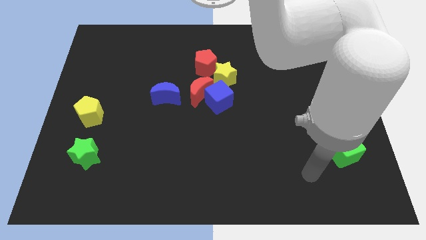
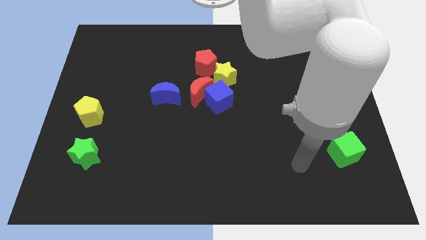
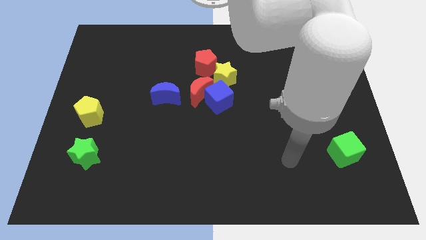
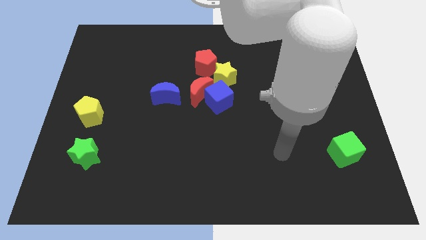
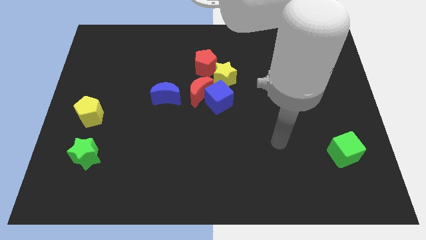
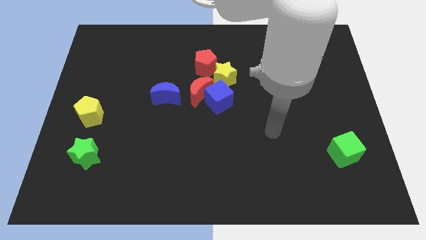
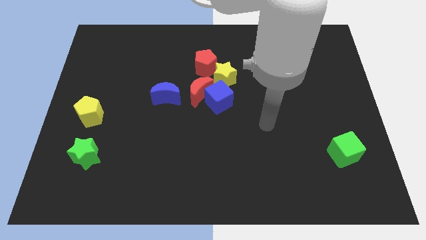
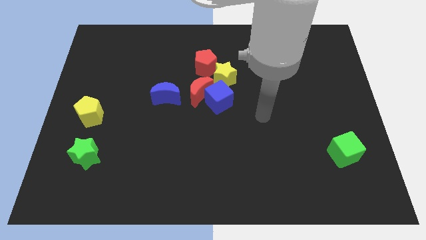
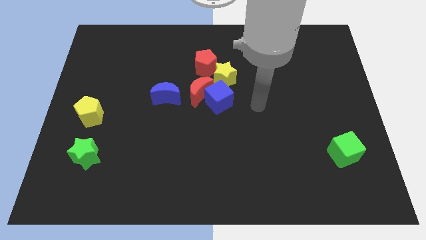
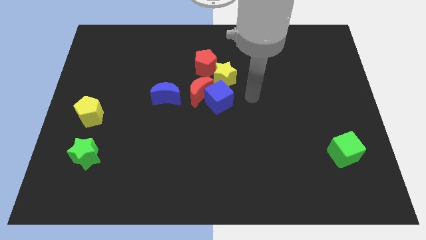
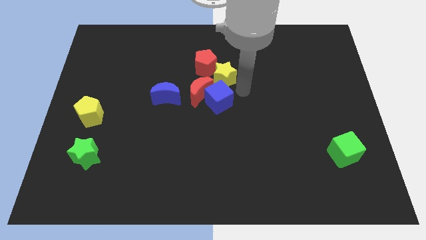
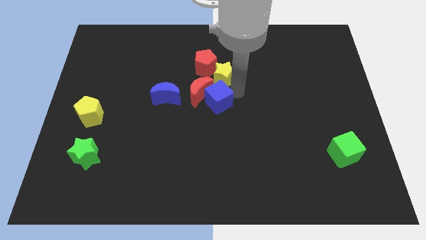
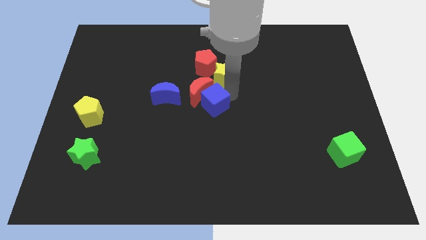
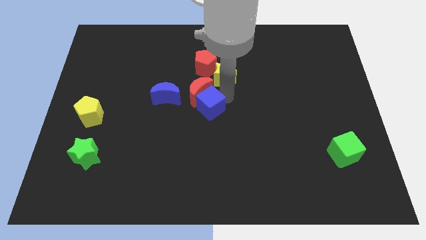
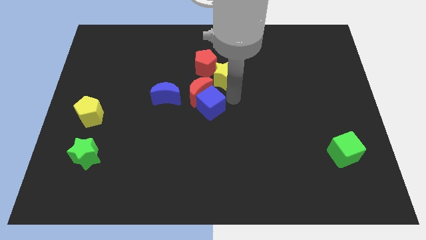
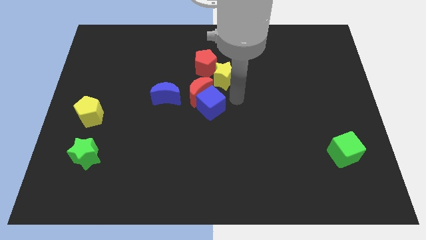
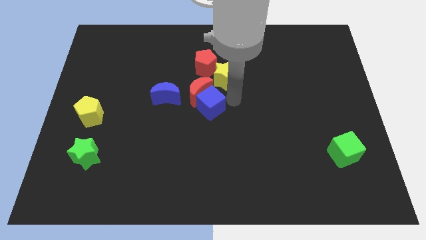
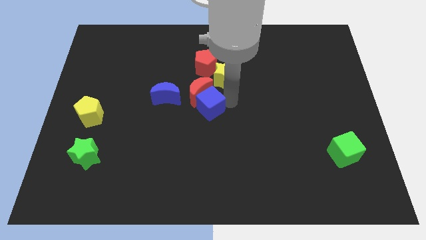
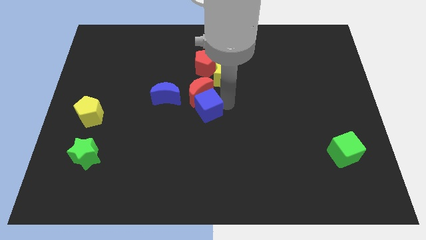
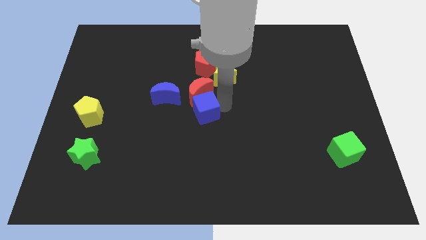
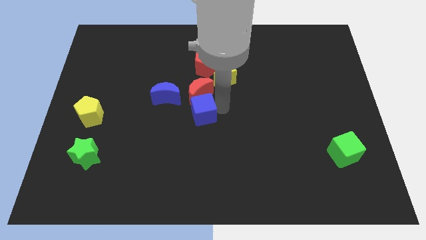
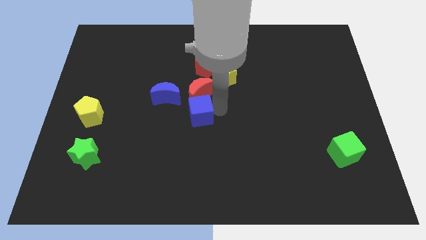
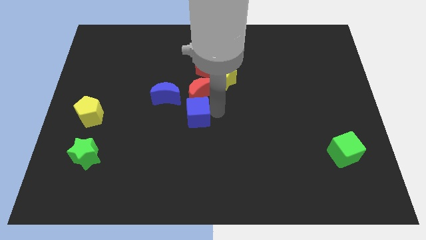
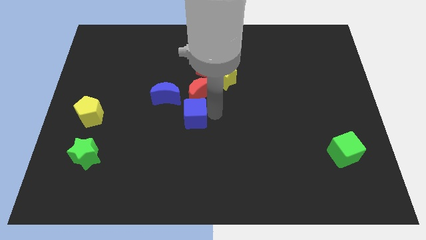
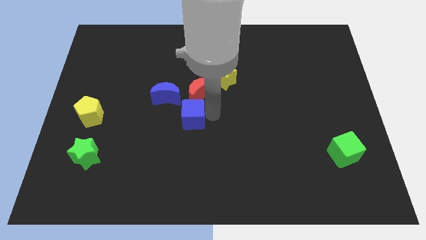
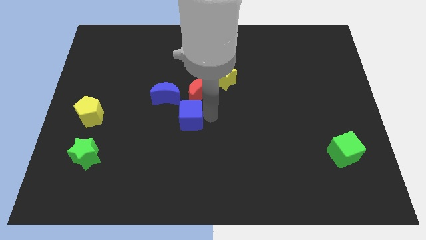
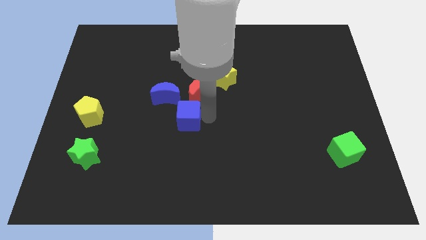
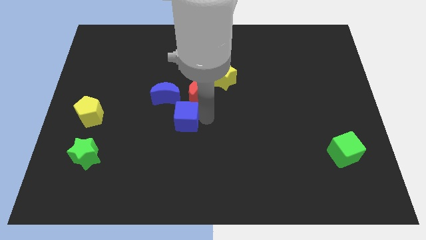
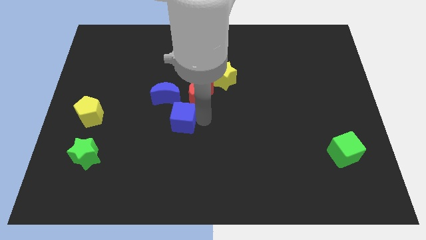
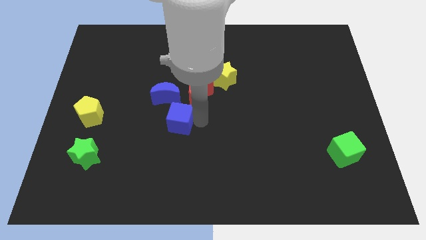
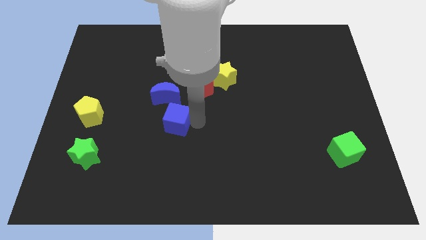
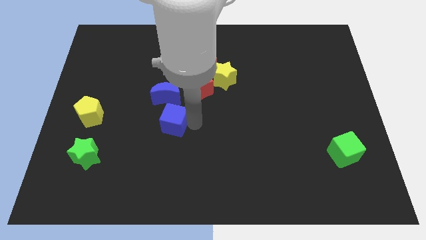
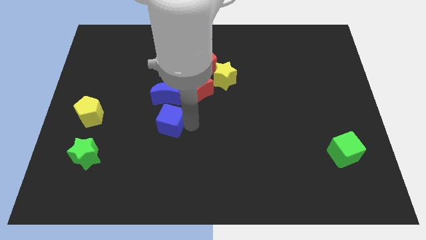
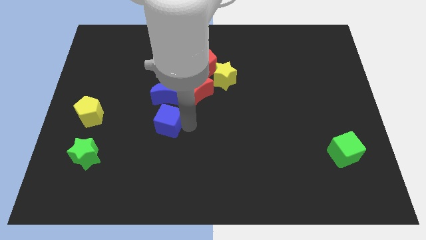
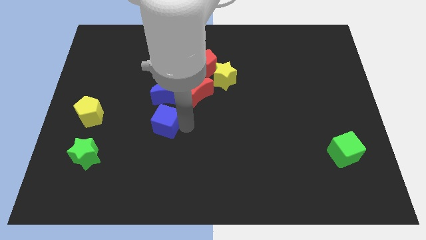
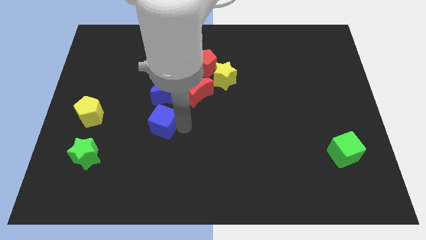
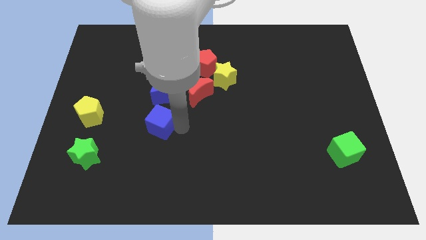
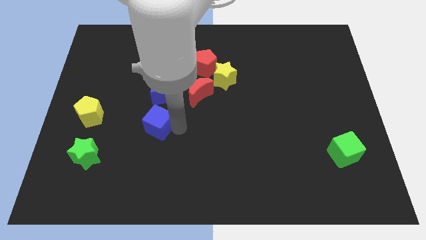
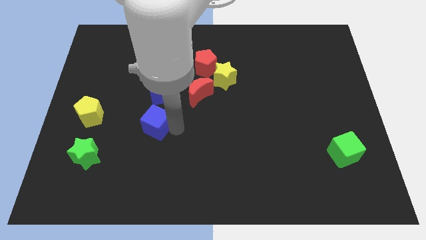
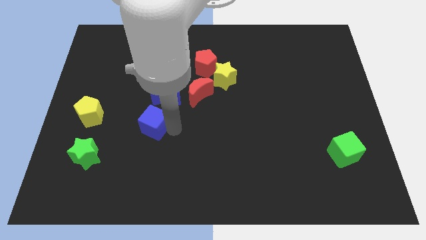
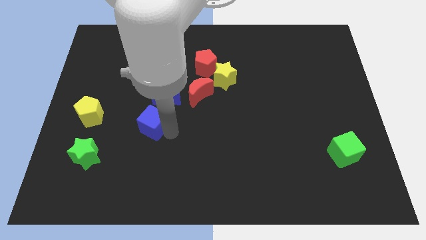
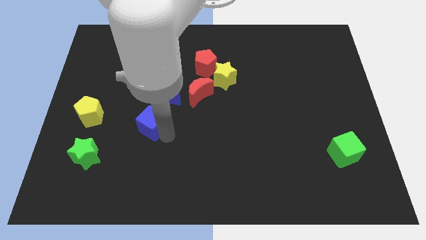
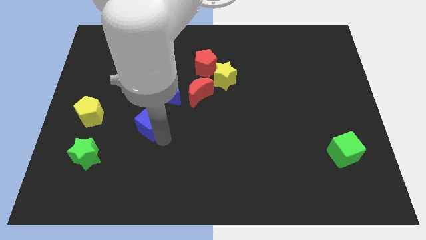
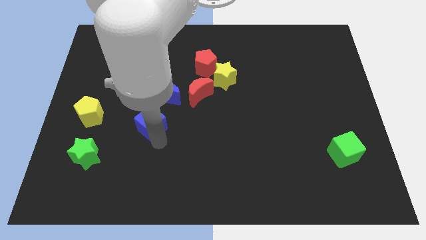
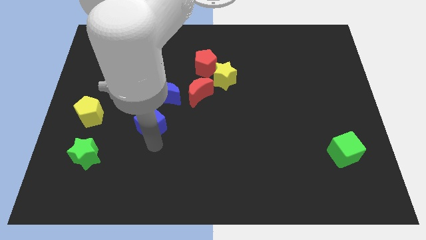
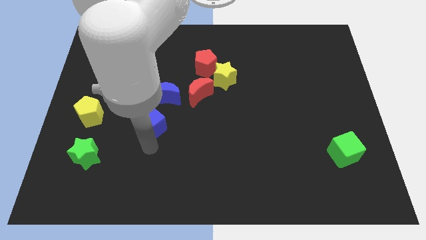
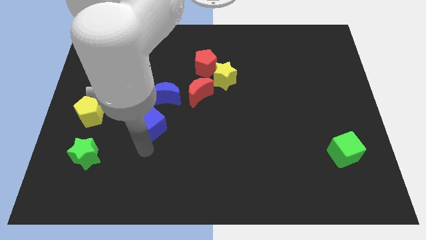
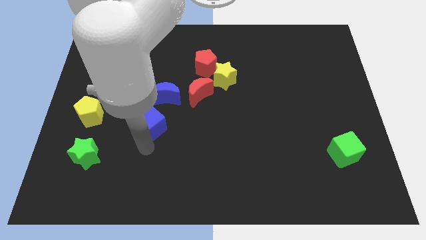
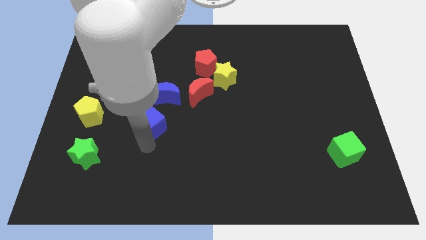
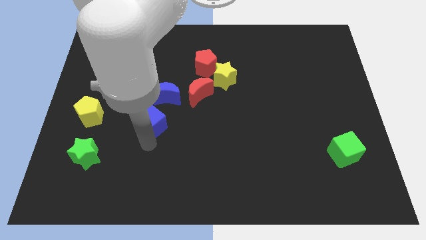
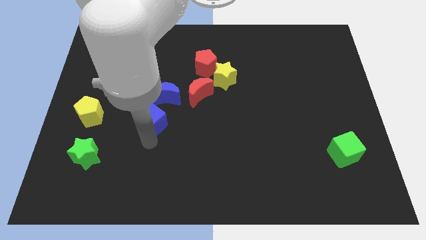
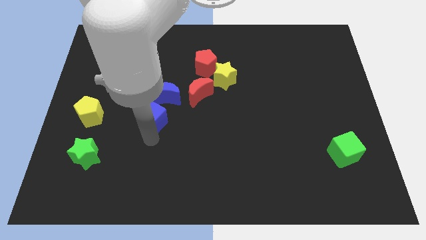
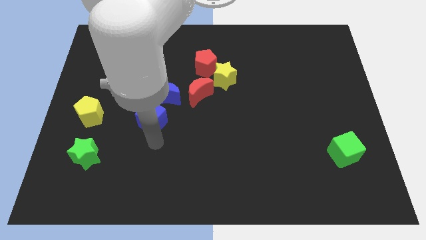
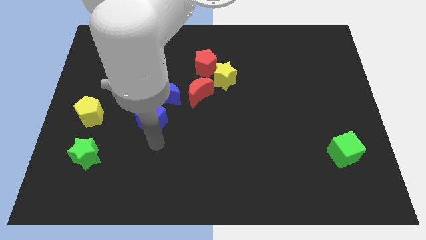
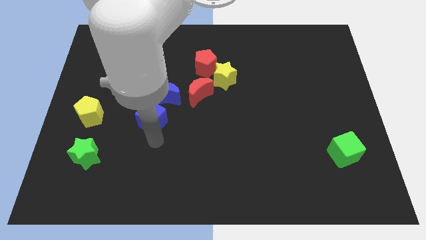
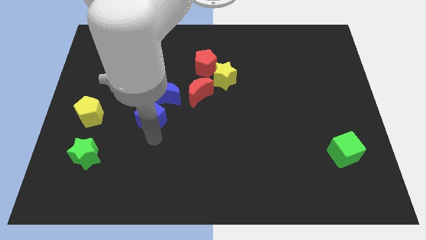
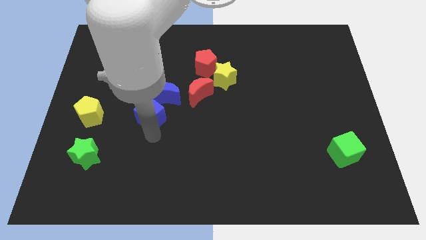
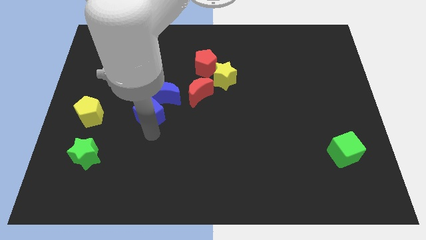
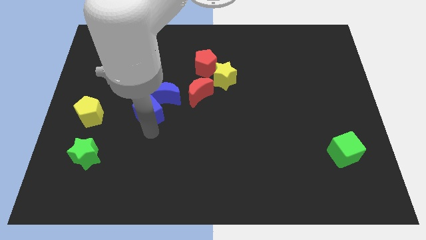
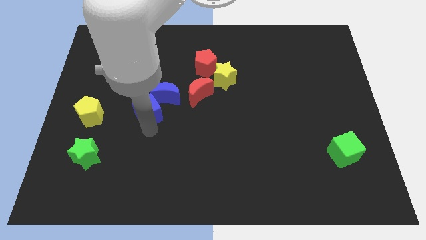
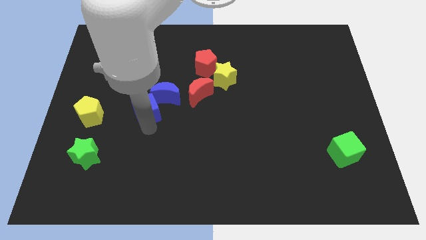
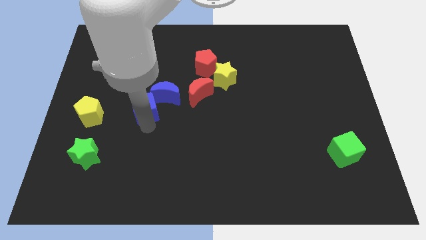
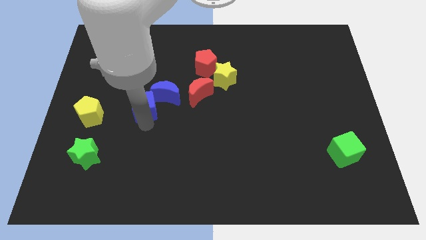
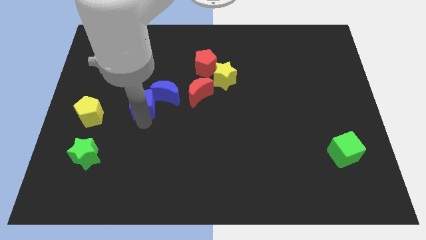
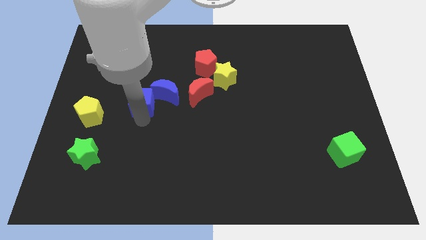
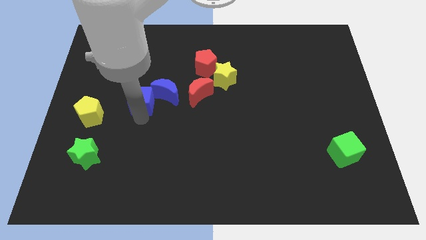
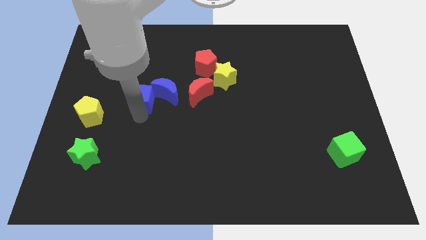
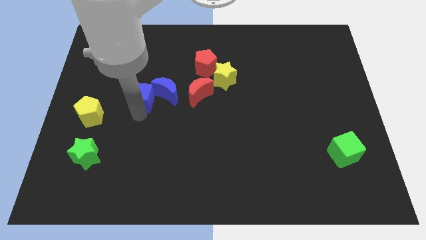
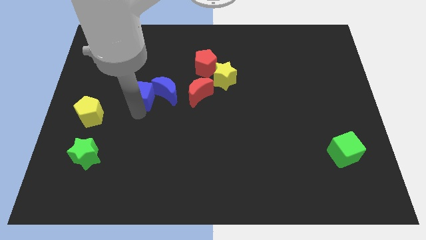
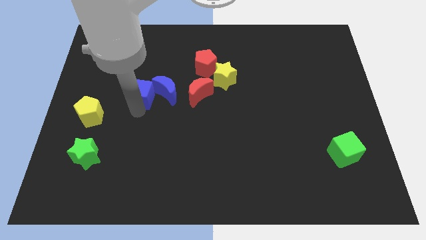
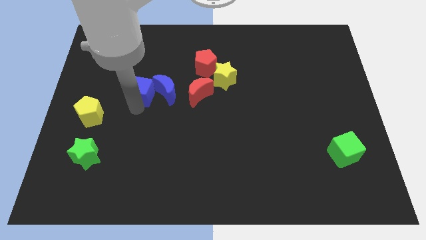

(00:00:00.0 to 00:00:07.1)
slightly slide the blue cube diagonally upwards and left

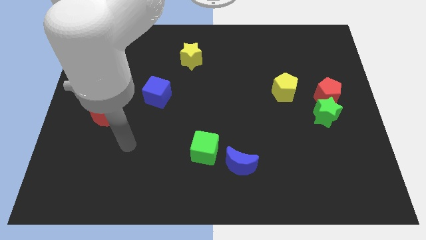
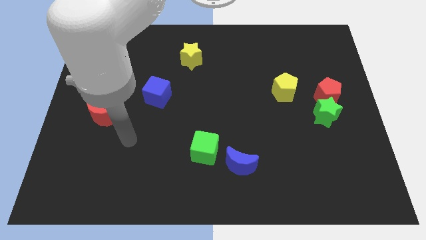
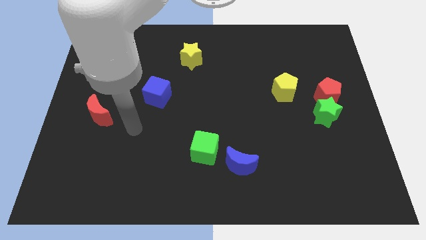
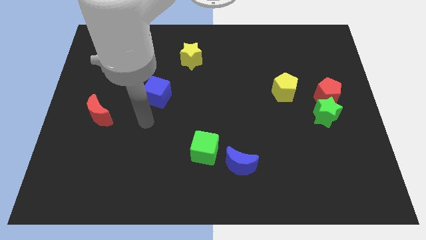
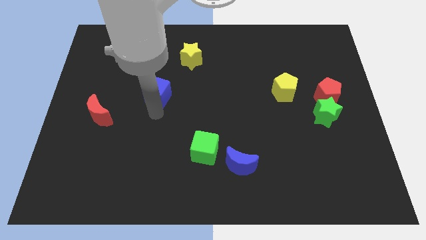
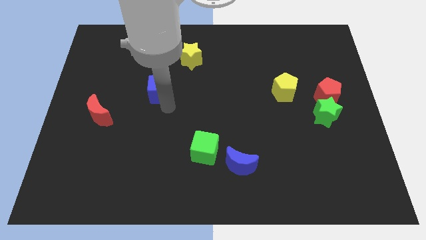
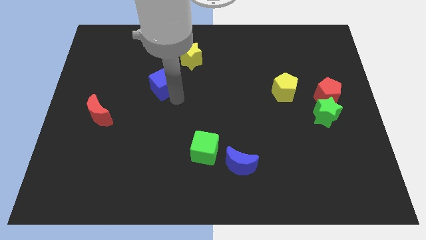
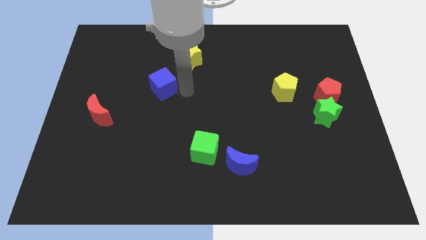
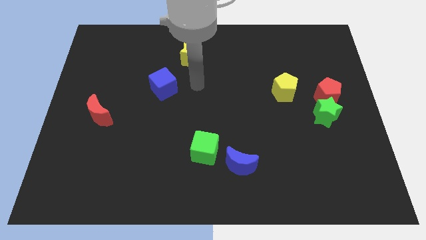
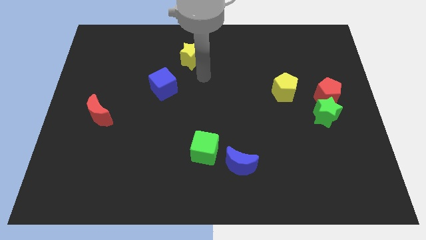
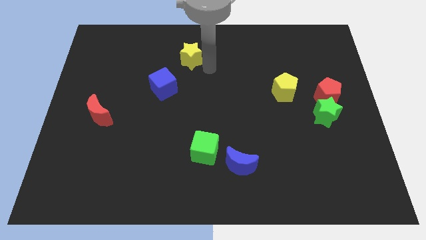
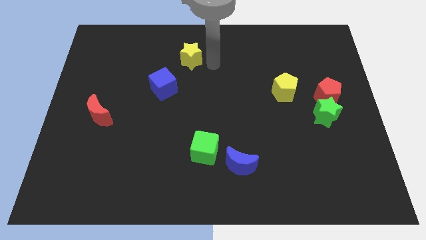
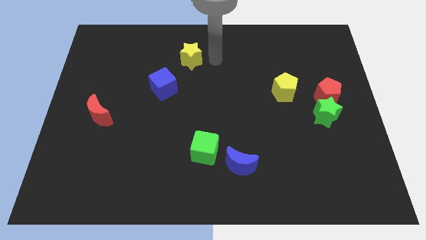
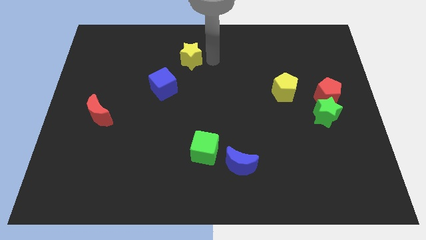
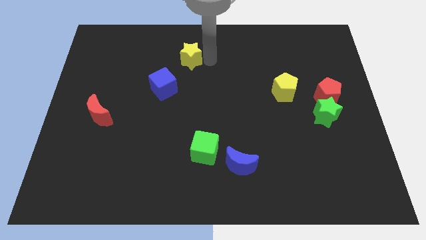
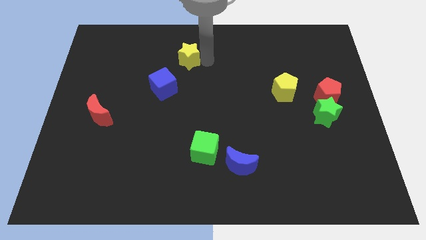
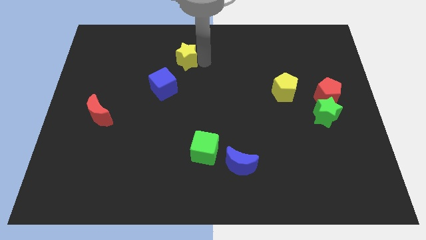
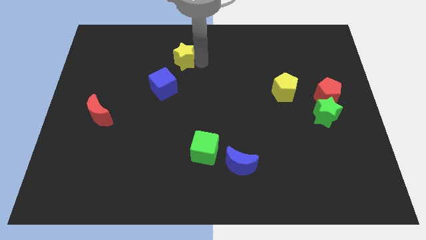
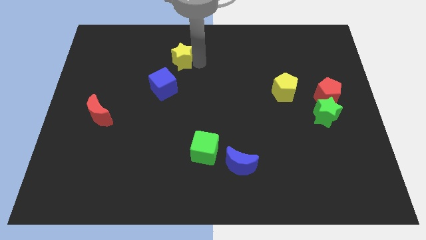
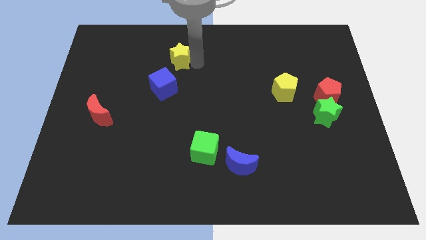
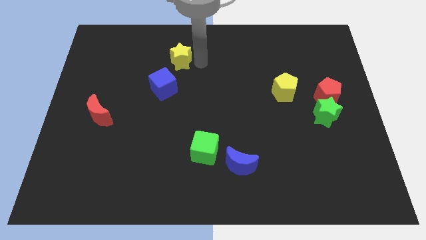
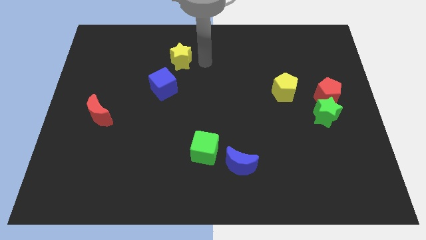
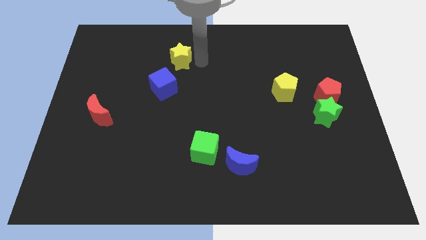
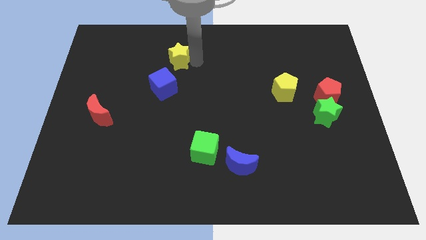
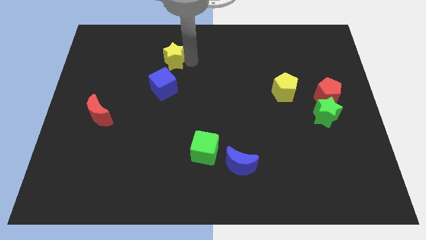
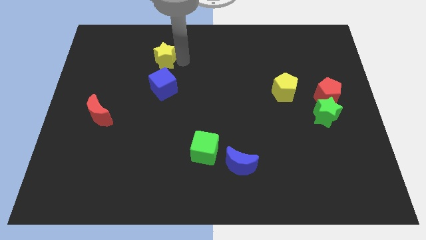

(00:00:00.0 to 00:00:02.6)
slightly push the yellow star to the left
